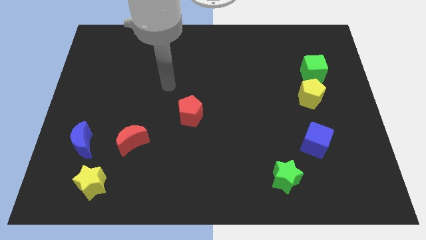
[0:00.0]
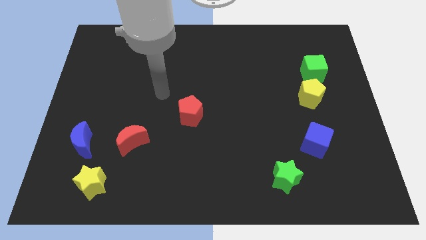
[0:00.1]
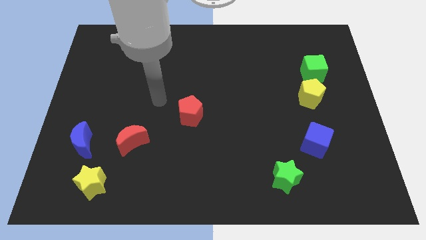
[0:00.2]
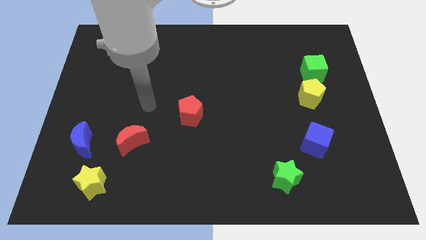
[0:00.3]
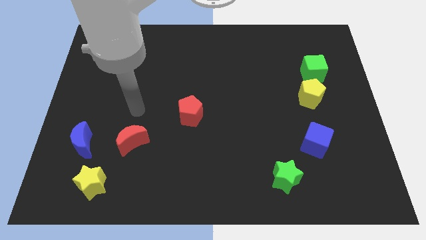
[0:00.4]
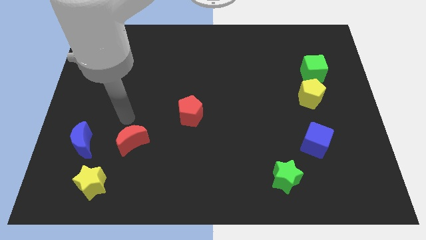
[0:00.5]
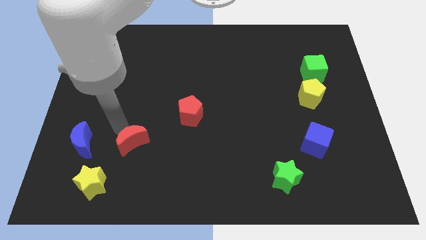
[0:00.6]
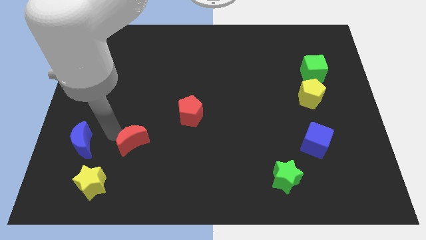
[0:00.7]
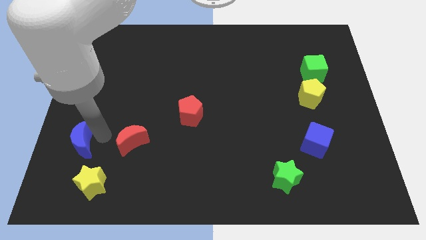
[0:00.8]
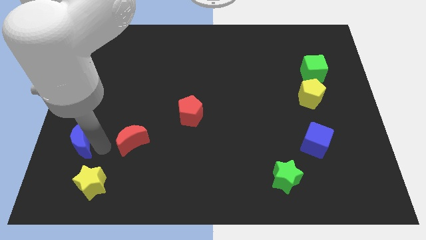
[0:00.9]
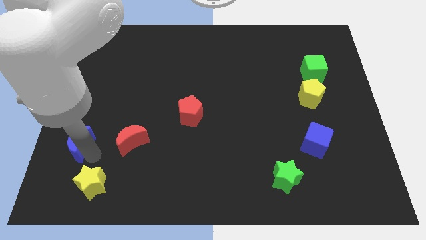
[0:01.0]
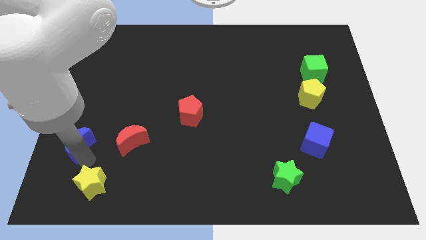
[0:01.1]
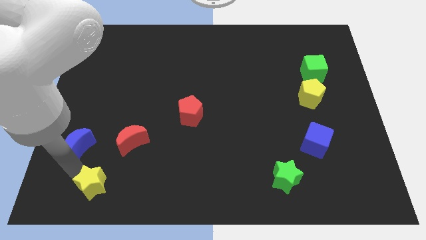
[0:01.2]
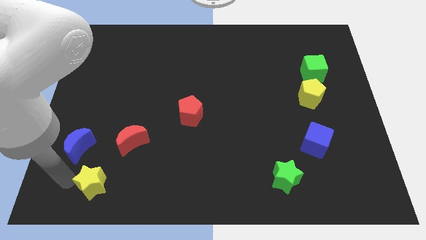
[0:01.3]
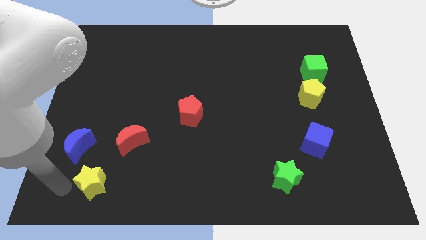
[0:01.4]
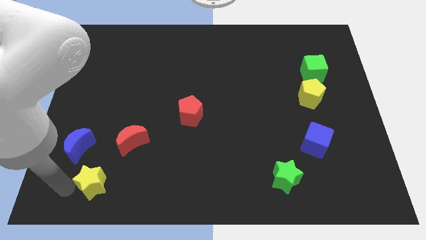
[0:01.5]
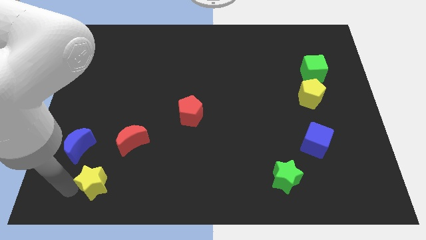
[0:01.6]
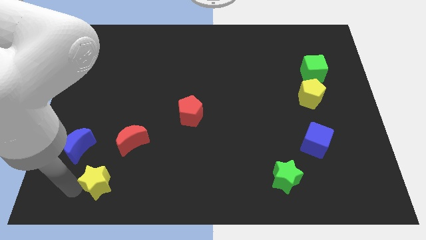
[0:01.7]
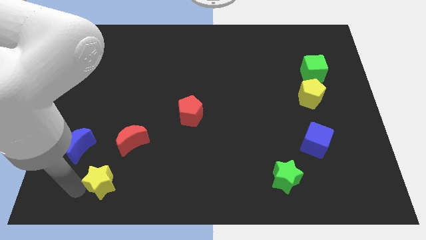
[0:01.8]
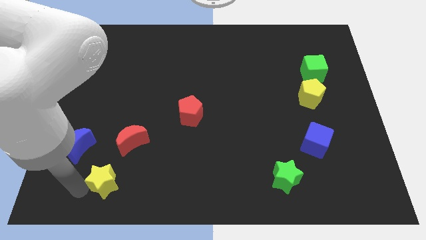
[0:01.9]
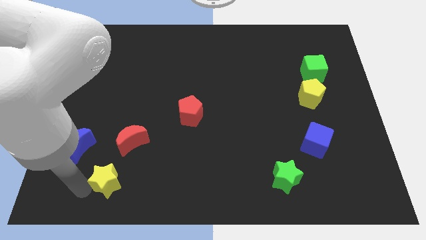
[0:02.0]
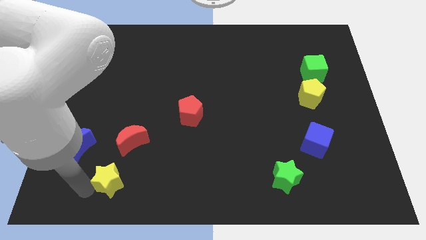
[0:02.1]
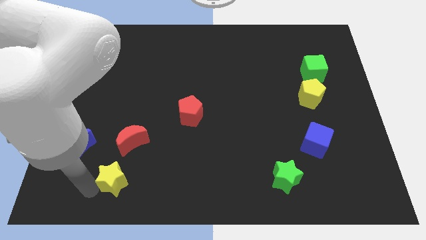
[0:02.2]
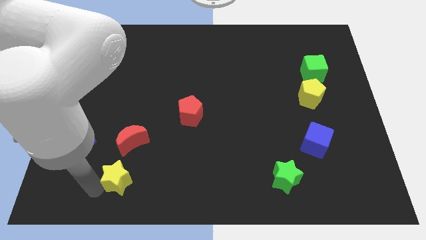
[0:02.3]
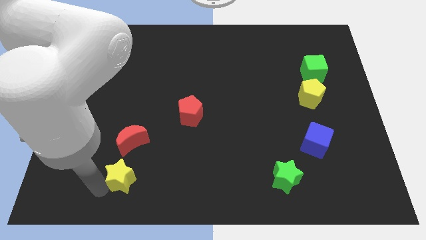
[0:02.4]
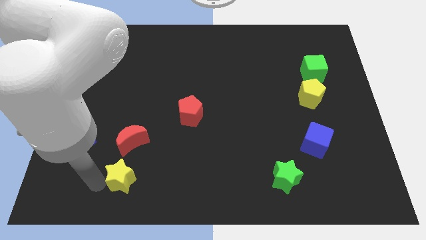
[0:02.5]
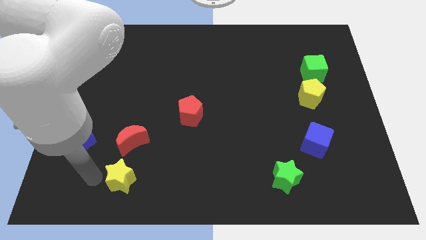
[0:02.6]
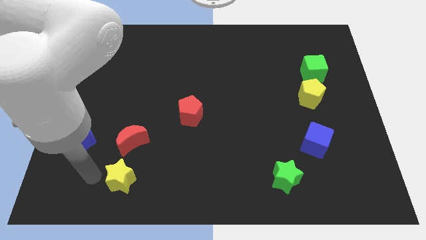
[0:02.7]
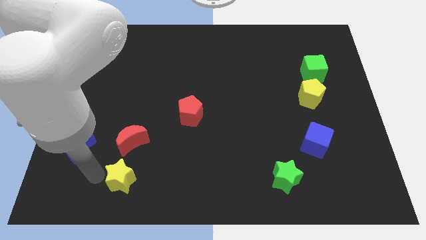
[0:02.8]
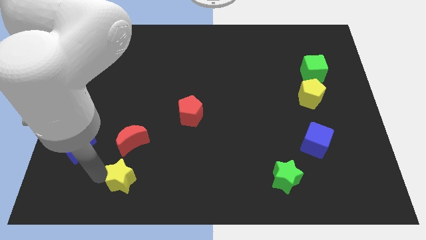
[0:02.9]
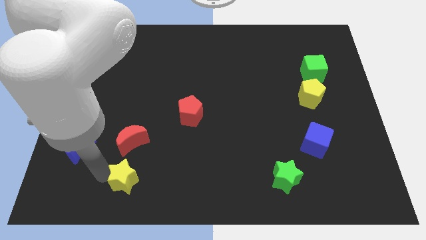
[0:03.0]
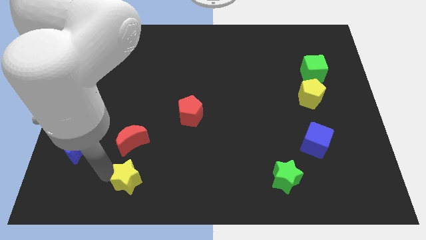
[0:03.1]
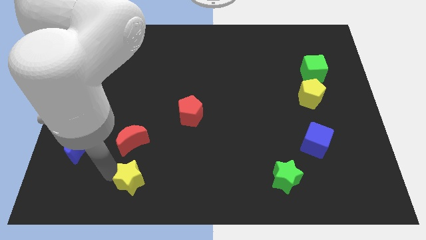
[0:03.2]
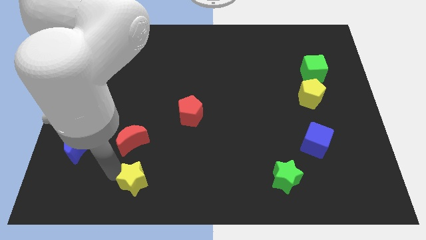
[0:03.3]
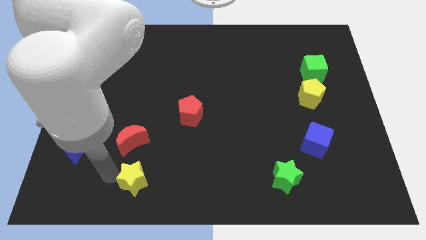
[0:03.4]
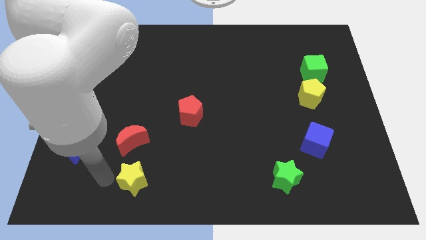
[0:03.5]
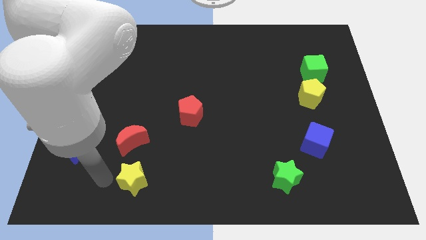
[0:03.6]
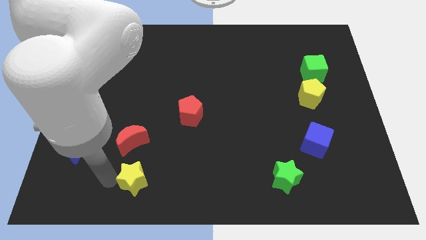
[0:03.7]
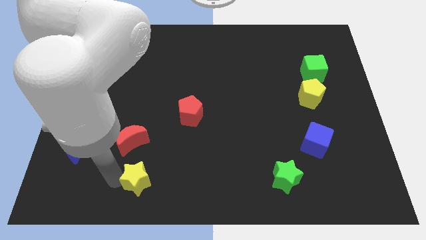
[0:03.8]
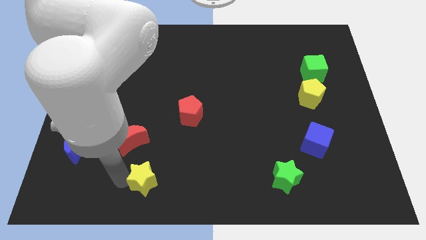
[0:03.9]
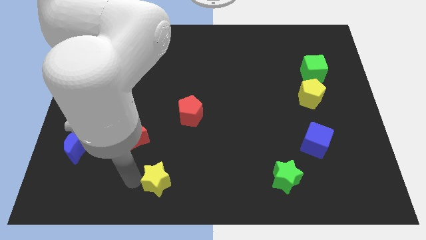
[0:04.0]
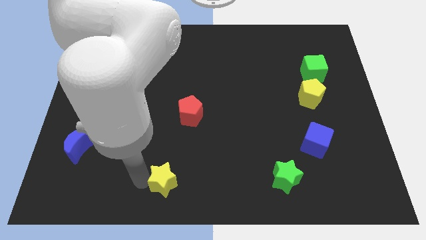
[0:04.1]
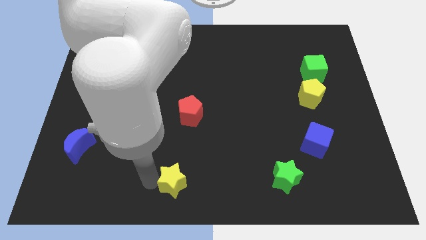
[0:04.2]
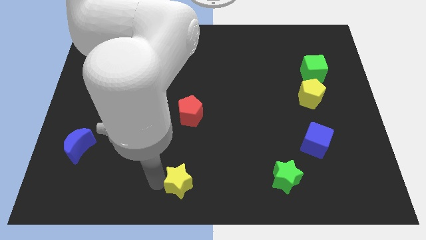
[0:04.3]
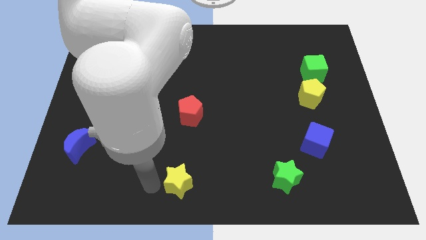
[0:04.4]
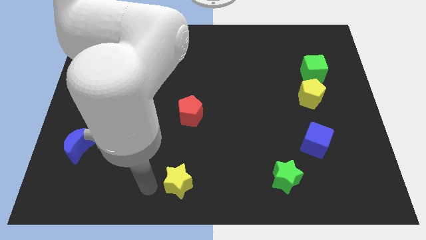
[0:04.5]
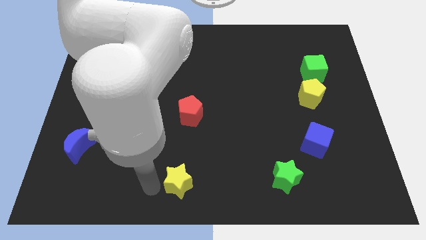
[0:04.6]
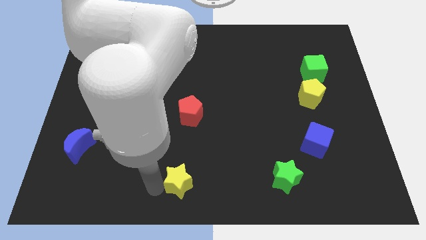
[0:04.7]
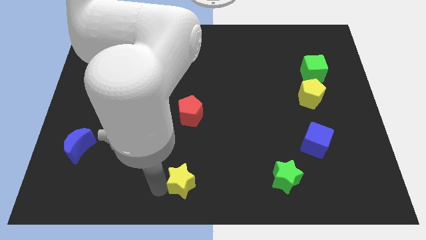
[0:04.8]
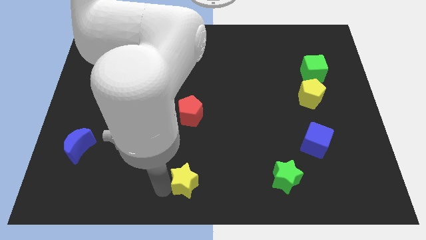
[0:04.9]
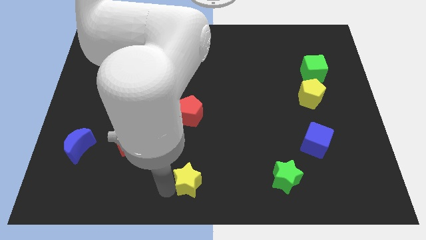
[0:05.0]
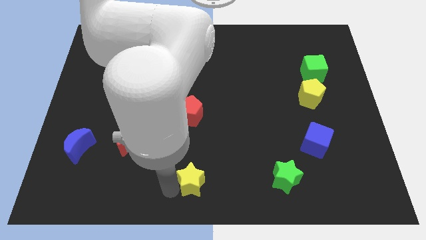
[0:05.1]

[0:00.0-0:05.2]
slide the yellow star to the right

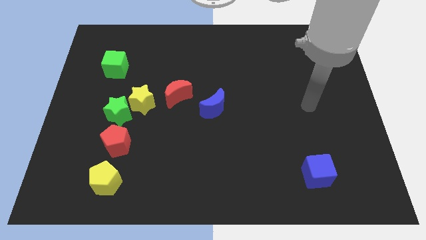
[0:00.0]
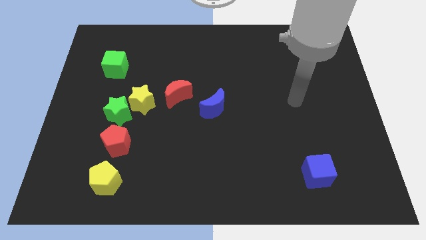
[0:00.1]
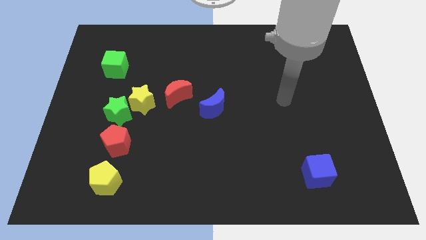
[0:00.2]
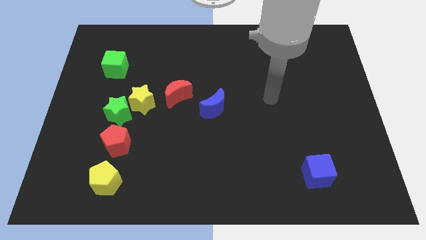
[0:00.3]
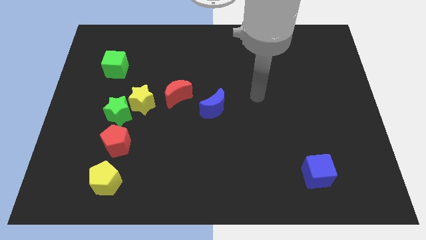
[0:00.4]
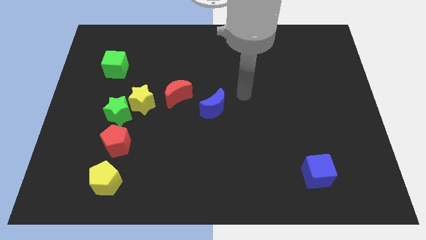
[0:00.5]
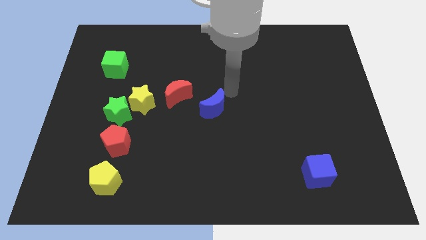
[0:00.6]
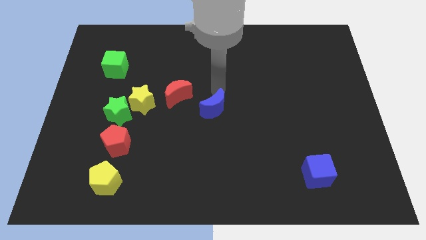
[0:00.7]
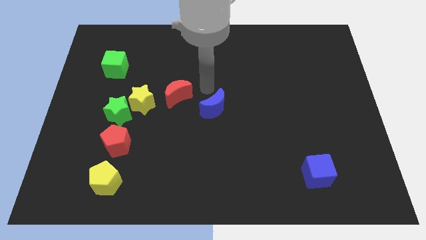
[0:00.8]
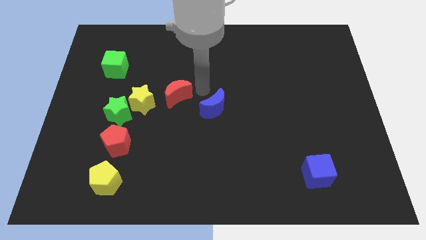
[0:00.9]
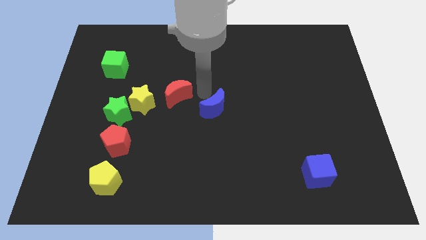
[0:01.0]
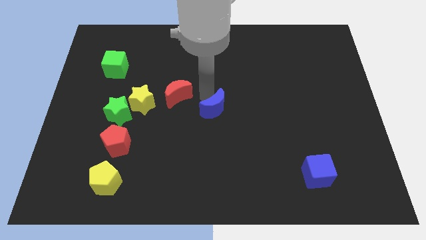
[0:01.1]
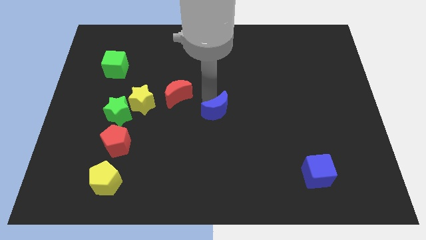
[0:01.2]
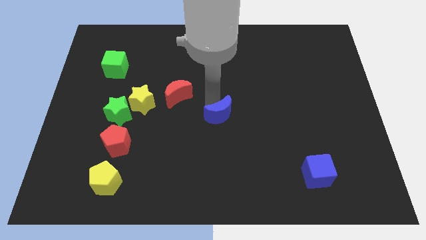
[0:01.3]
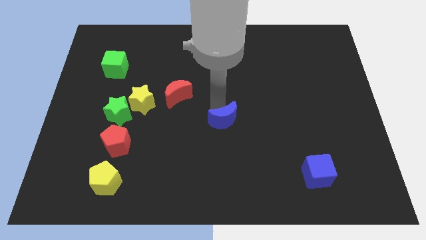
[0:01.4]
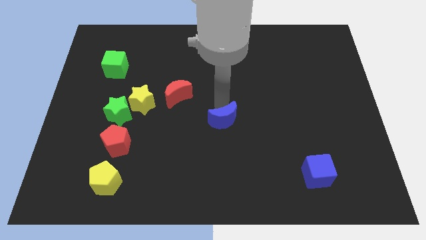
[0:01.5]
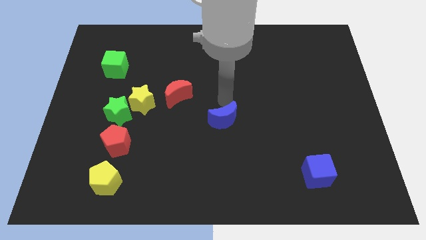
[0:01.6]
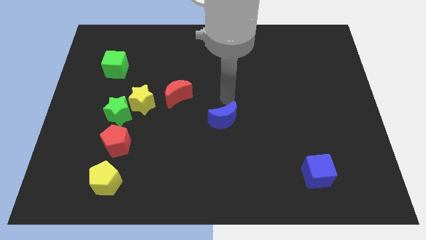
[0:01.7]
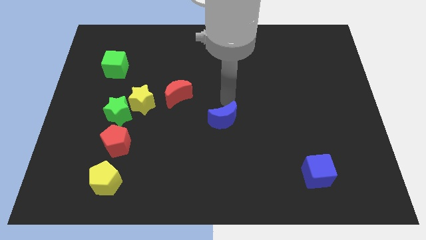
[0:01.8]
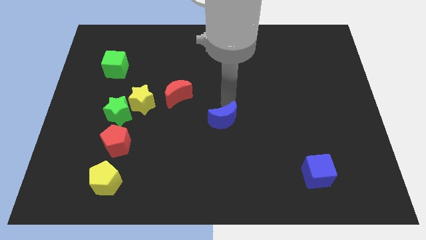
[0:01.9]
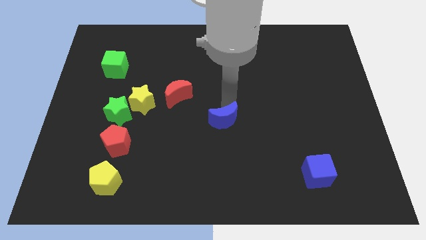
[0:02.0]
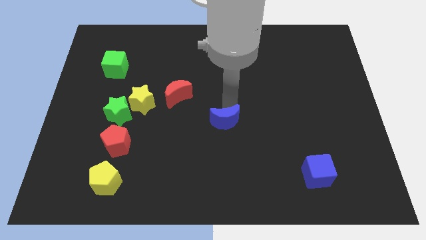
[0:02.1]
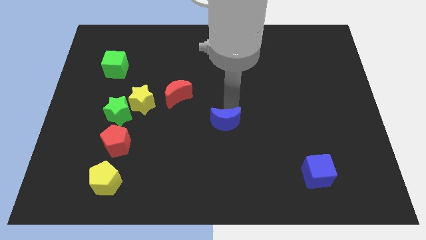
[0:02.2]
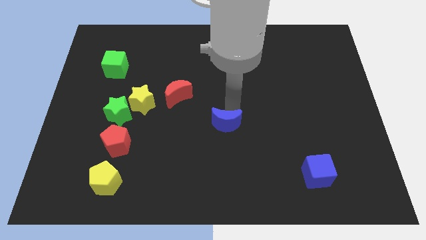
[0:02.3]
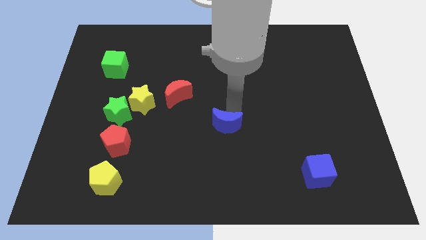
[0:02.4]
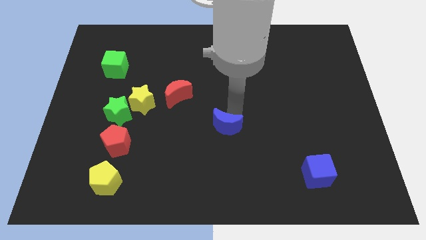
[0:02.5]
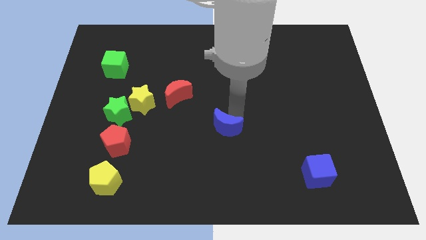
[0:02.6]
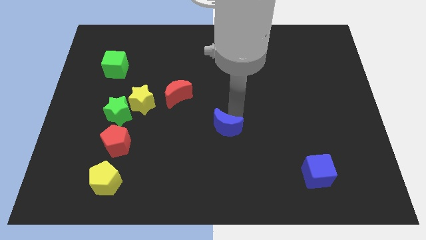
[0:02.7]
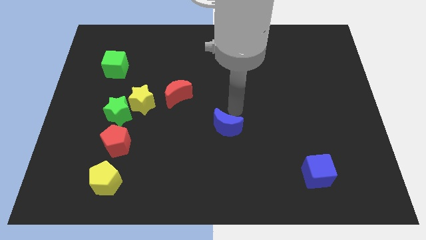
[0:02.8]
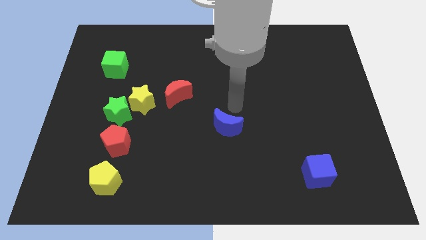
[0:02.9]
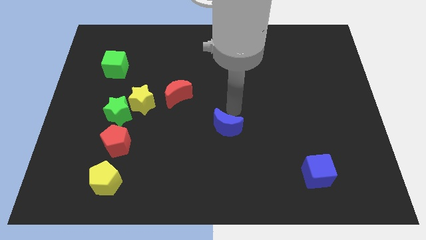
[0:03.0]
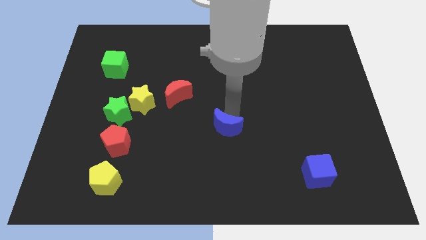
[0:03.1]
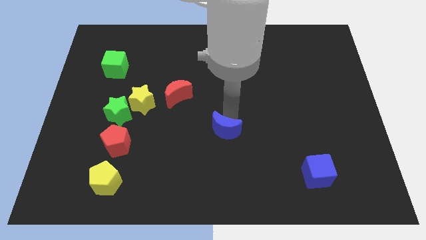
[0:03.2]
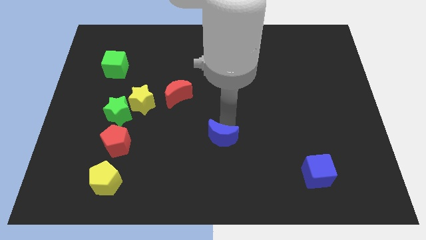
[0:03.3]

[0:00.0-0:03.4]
slide the blue moon down somewhat

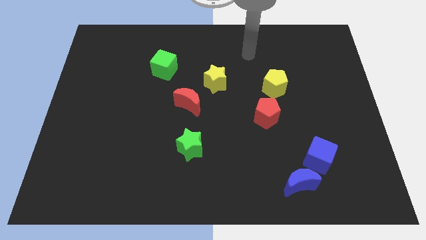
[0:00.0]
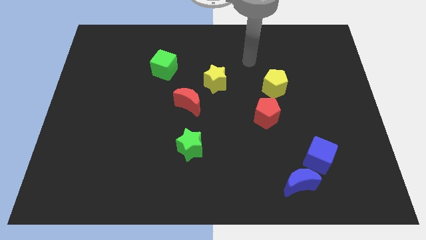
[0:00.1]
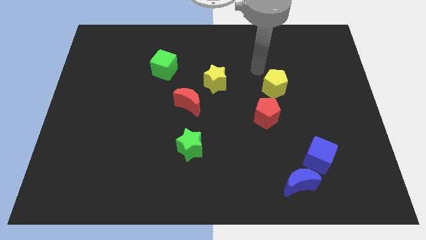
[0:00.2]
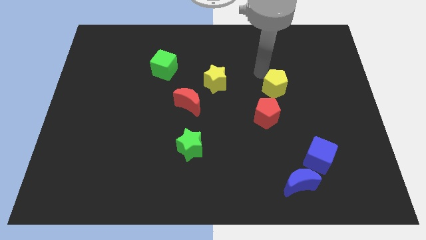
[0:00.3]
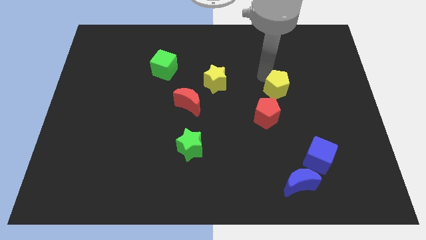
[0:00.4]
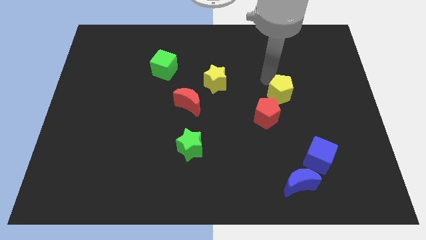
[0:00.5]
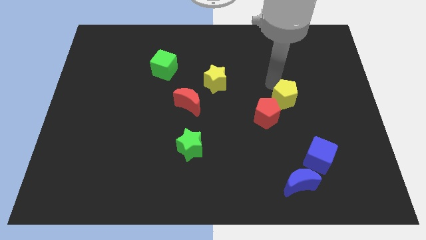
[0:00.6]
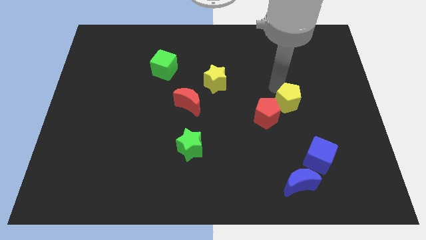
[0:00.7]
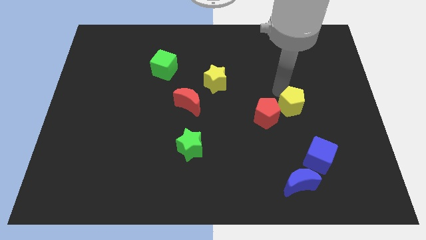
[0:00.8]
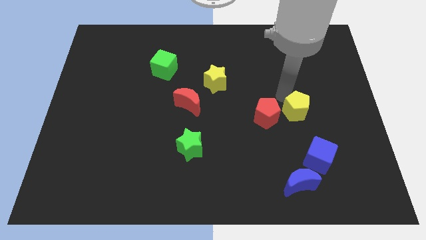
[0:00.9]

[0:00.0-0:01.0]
push the yellow pentagon diagonally down and right a bit
